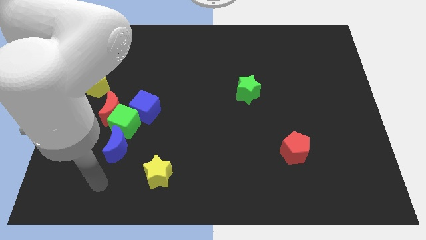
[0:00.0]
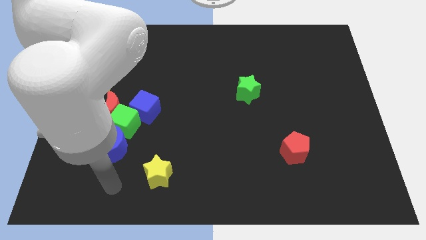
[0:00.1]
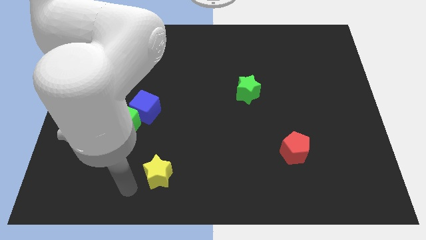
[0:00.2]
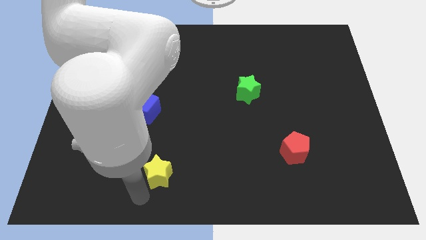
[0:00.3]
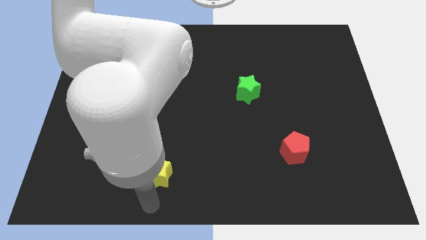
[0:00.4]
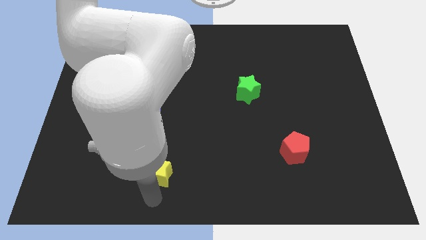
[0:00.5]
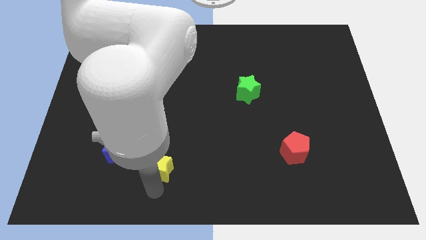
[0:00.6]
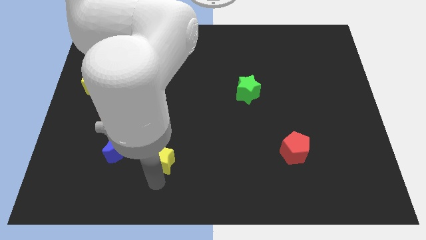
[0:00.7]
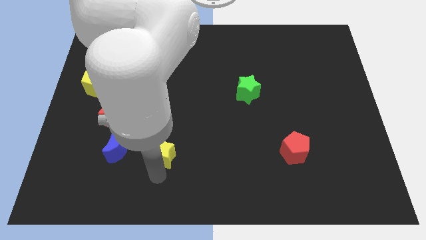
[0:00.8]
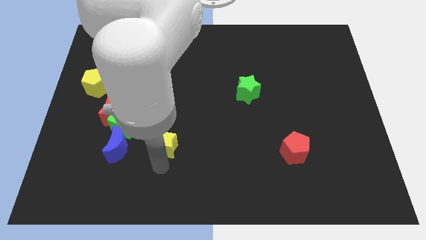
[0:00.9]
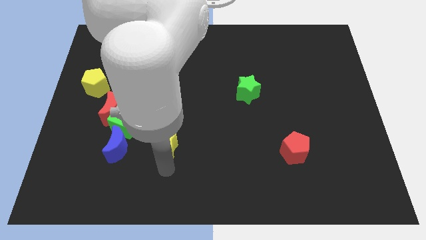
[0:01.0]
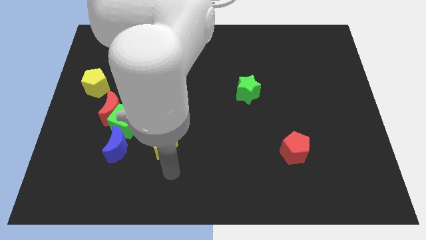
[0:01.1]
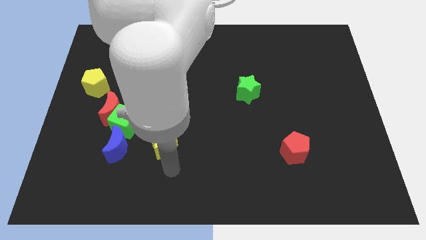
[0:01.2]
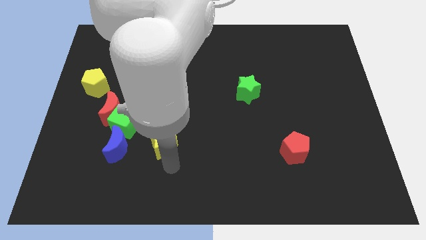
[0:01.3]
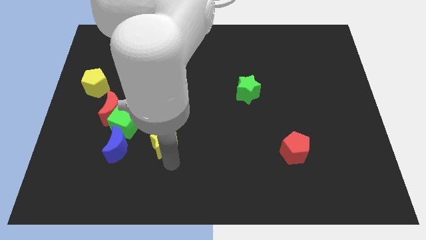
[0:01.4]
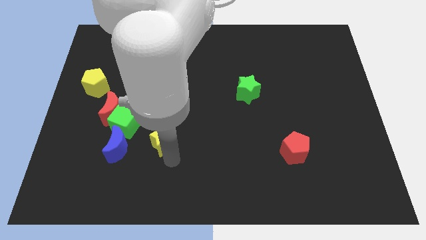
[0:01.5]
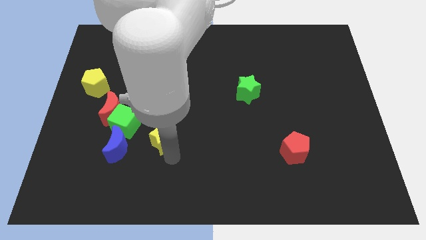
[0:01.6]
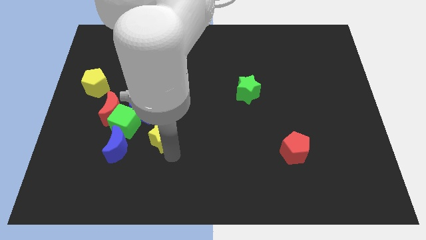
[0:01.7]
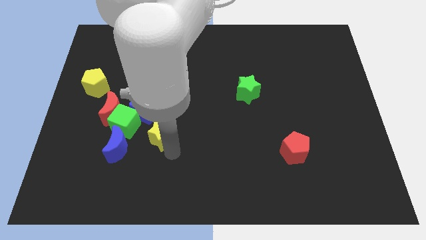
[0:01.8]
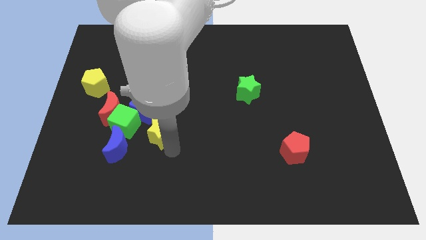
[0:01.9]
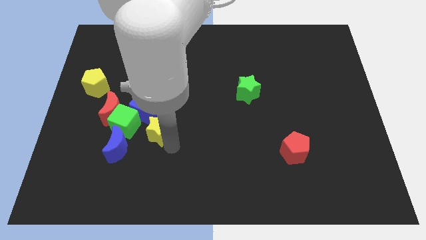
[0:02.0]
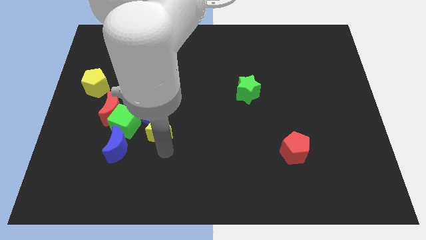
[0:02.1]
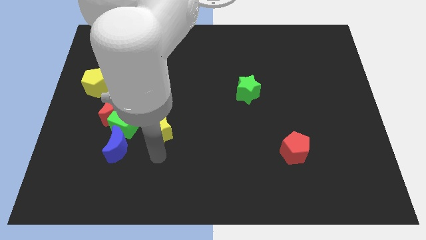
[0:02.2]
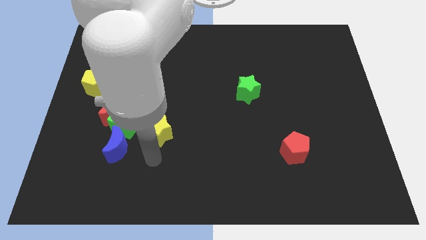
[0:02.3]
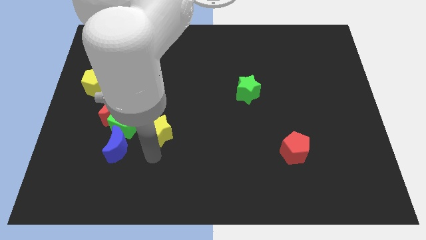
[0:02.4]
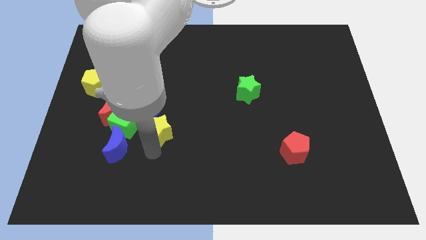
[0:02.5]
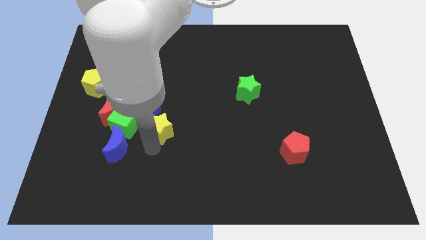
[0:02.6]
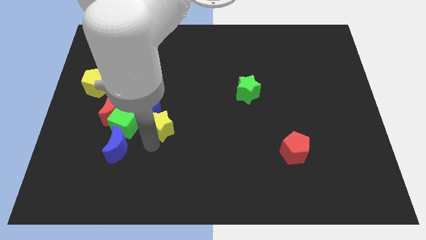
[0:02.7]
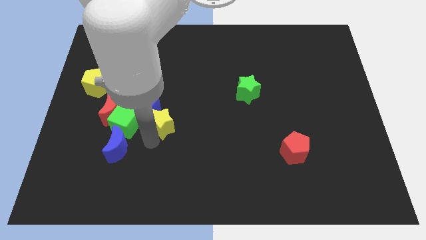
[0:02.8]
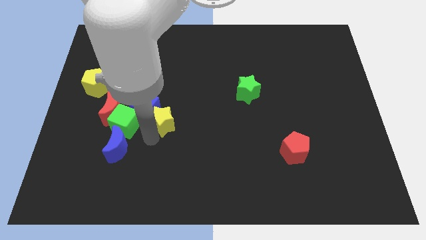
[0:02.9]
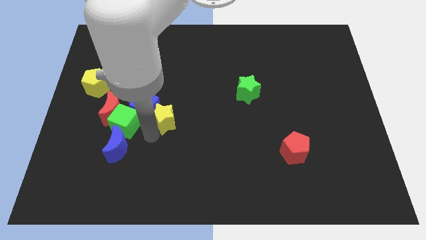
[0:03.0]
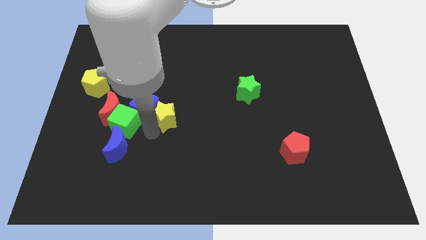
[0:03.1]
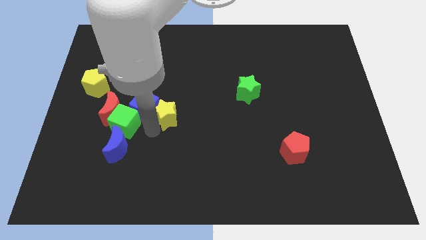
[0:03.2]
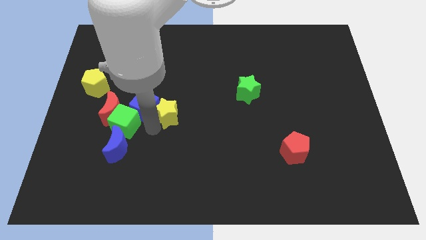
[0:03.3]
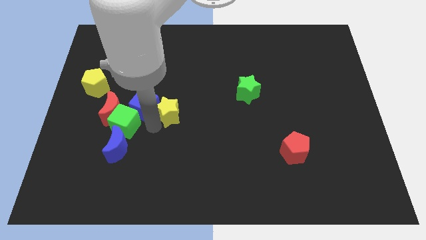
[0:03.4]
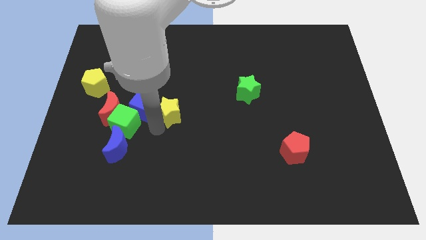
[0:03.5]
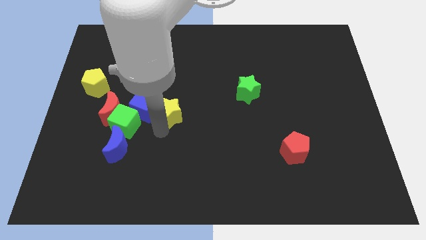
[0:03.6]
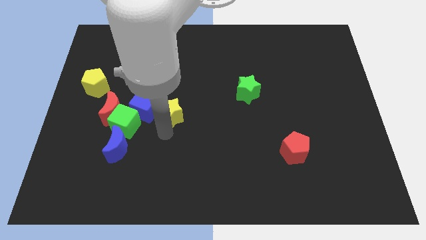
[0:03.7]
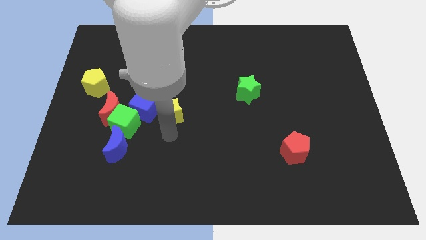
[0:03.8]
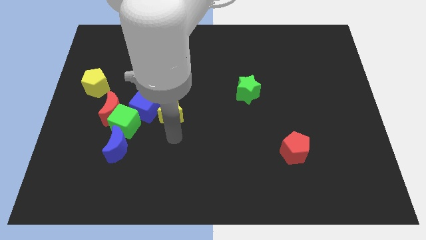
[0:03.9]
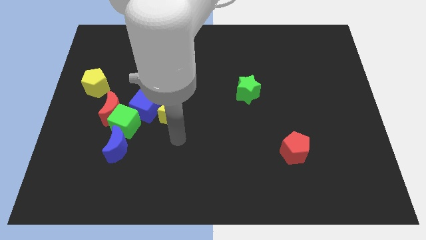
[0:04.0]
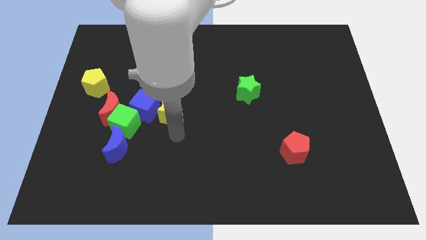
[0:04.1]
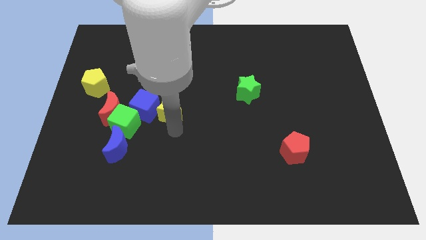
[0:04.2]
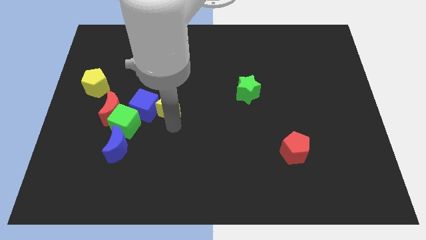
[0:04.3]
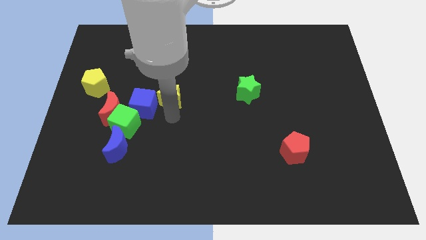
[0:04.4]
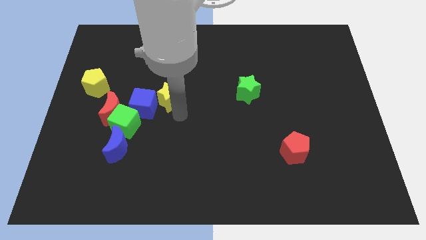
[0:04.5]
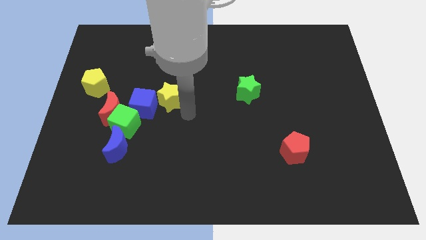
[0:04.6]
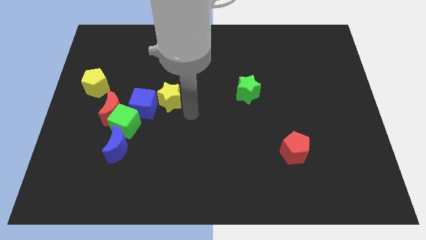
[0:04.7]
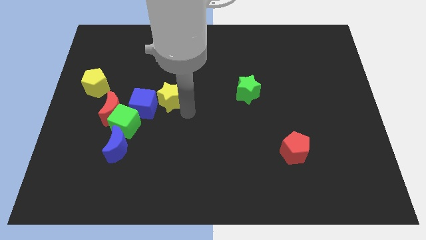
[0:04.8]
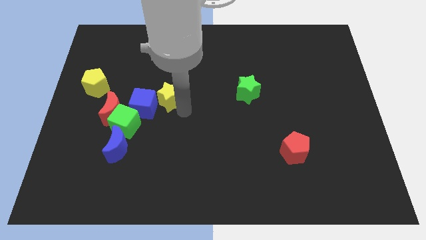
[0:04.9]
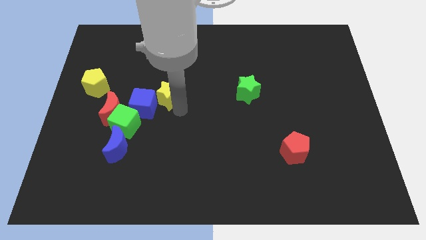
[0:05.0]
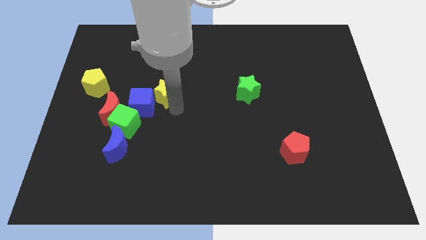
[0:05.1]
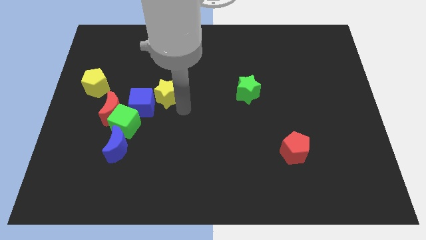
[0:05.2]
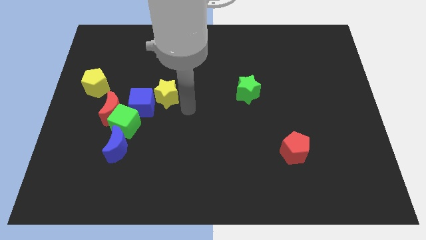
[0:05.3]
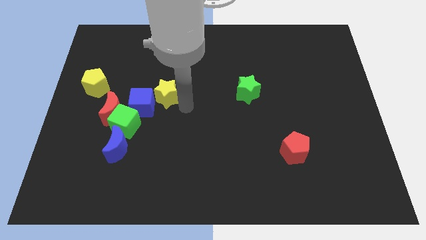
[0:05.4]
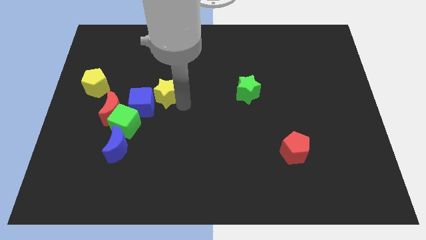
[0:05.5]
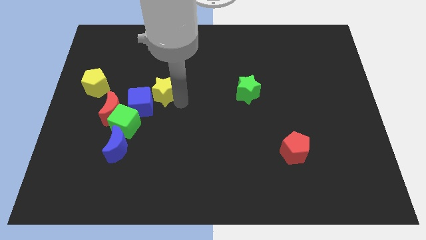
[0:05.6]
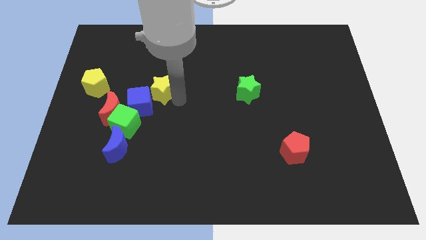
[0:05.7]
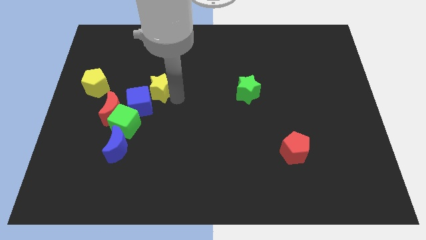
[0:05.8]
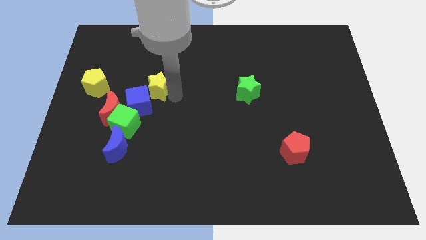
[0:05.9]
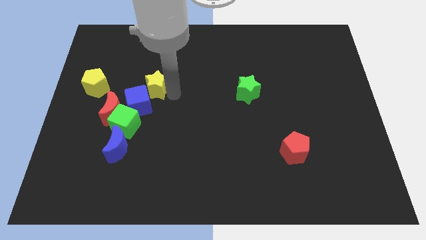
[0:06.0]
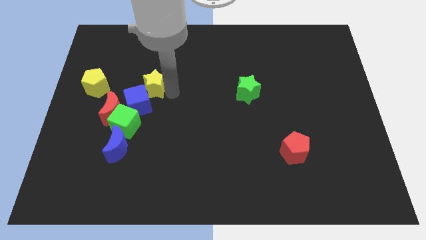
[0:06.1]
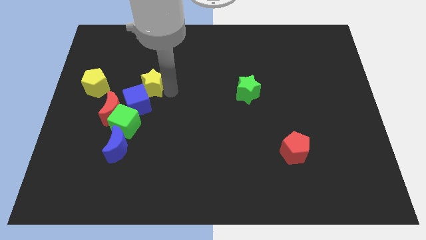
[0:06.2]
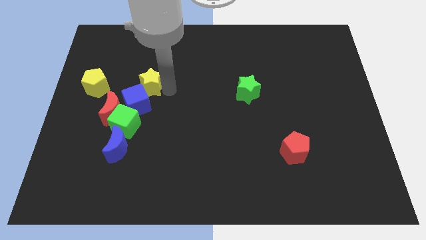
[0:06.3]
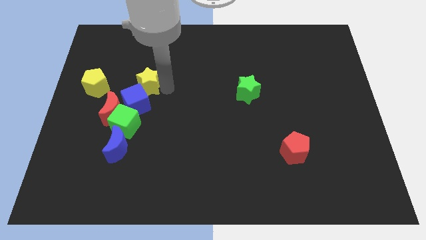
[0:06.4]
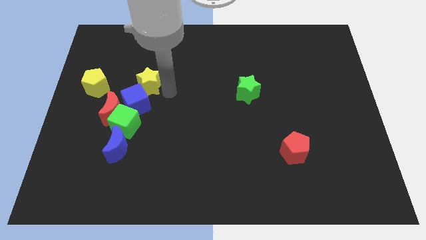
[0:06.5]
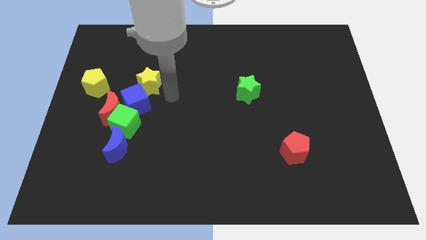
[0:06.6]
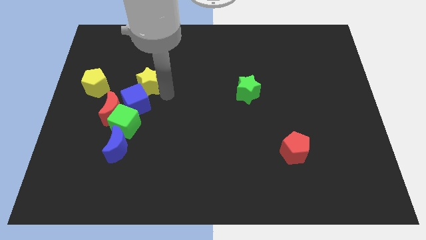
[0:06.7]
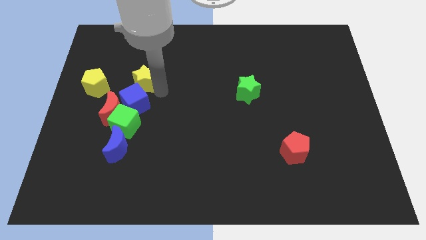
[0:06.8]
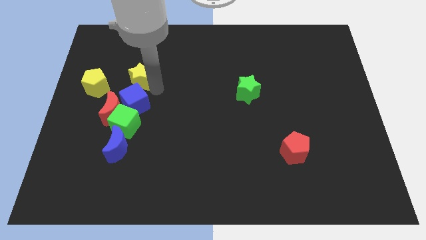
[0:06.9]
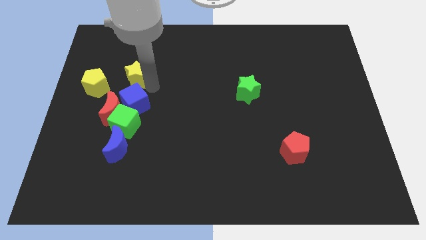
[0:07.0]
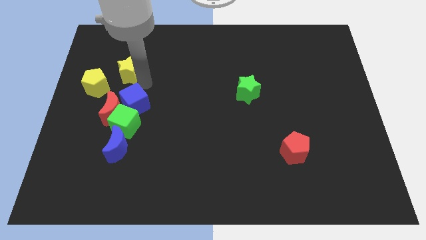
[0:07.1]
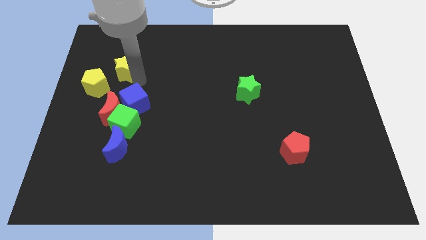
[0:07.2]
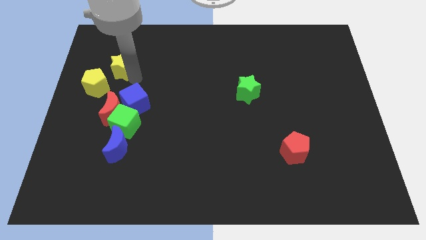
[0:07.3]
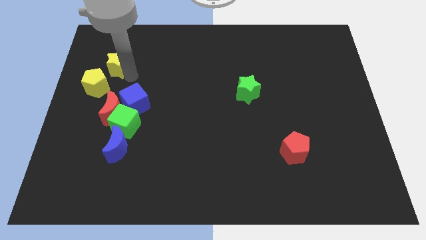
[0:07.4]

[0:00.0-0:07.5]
push the yellow star to the top side of the yellow pentagon
